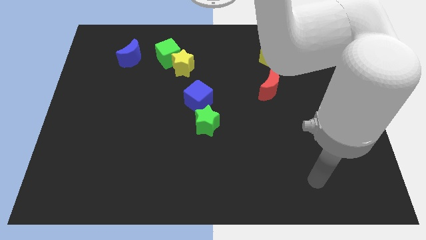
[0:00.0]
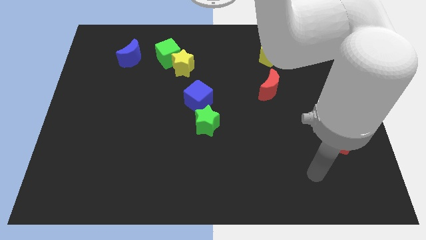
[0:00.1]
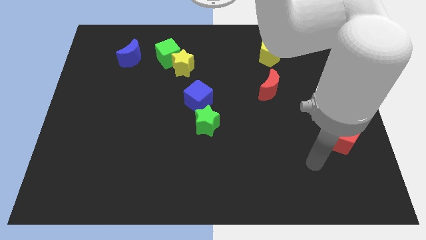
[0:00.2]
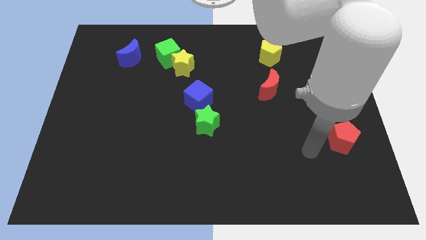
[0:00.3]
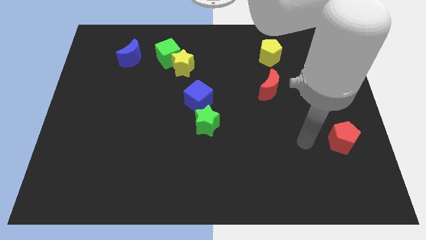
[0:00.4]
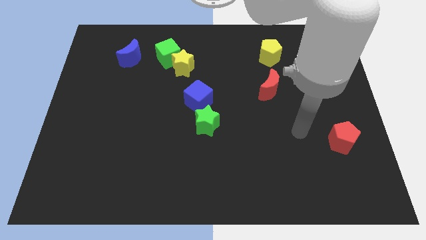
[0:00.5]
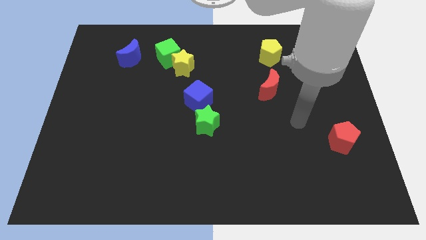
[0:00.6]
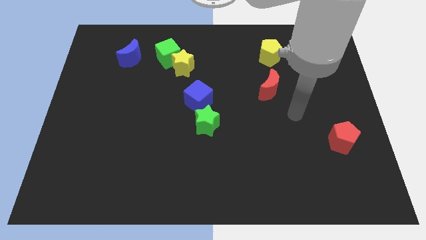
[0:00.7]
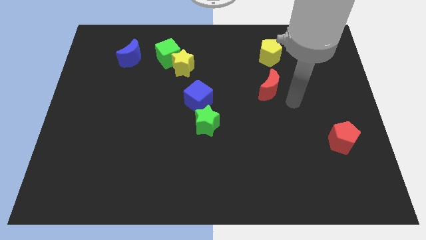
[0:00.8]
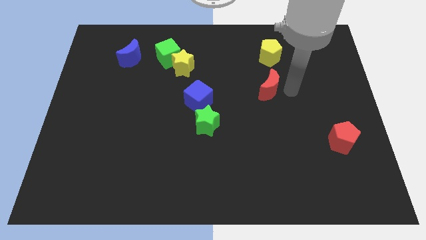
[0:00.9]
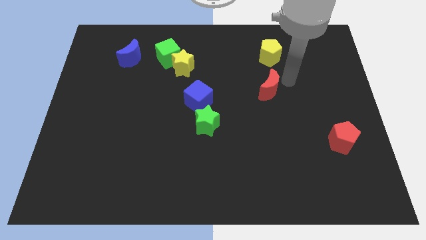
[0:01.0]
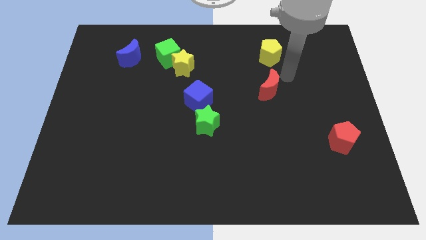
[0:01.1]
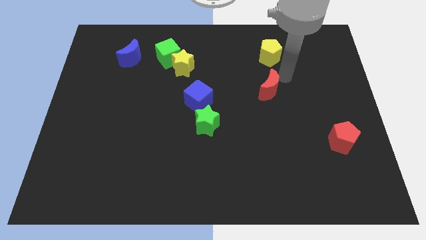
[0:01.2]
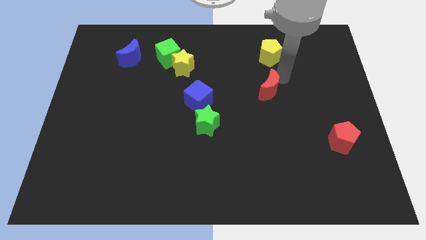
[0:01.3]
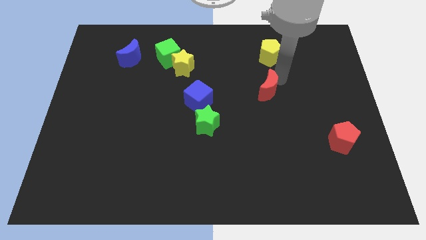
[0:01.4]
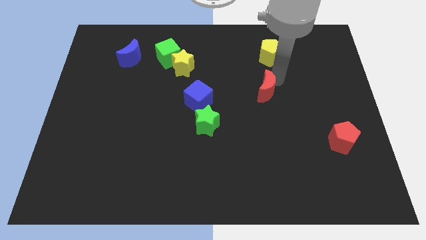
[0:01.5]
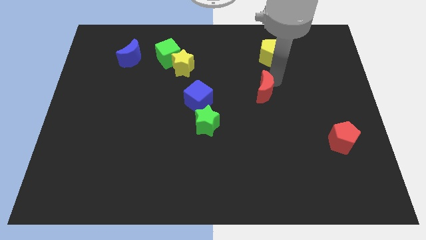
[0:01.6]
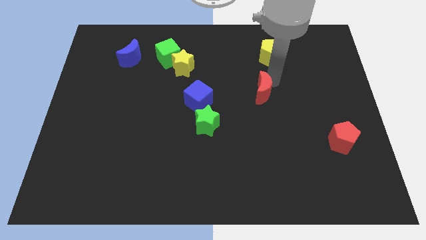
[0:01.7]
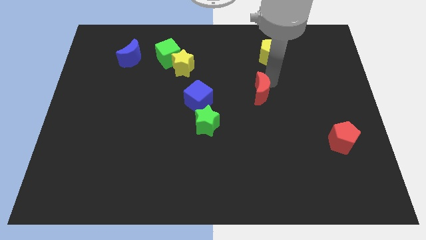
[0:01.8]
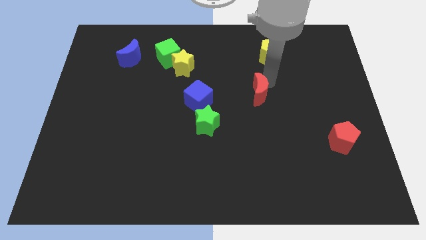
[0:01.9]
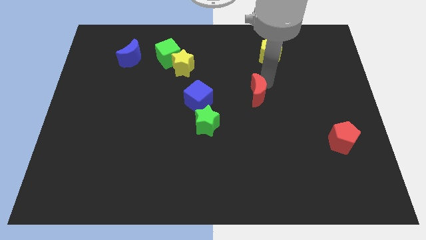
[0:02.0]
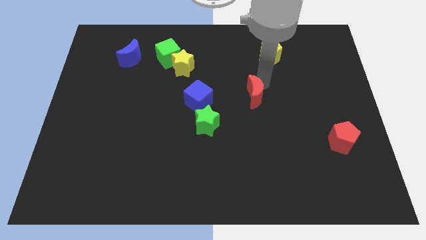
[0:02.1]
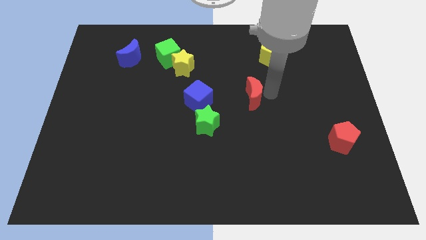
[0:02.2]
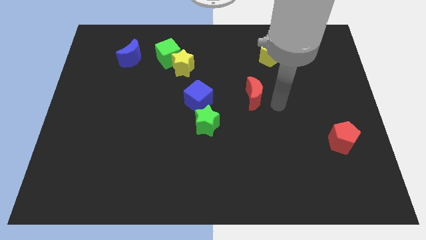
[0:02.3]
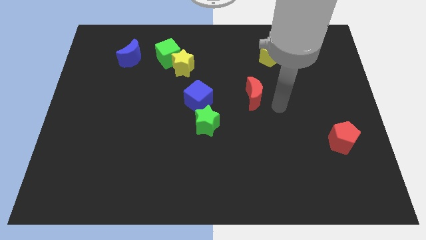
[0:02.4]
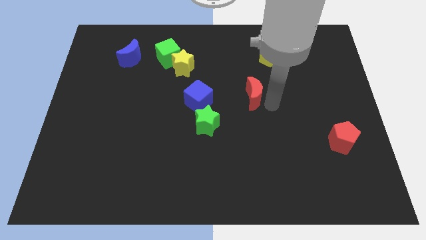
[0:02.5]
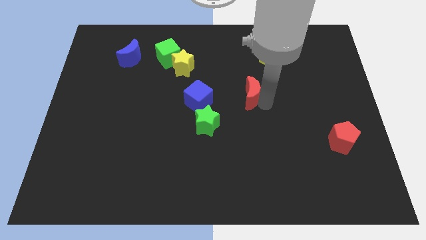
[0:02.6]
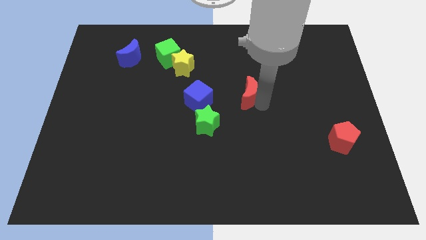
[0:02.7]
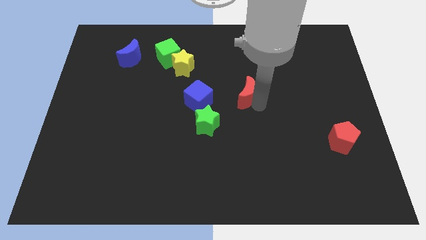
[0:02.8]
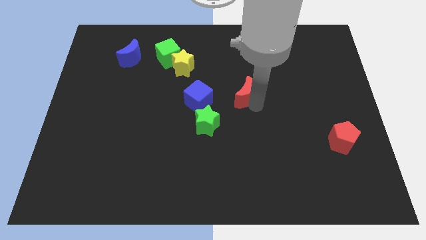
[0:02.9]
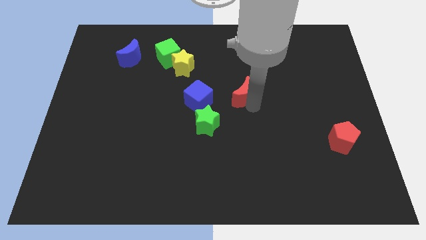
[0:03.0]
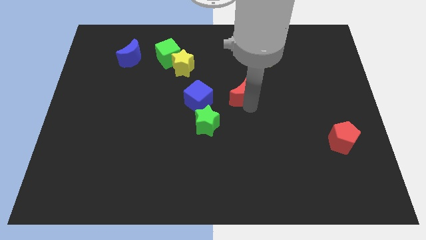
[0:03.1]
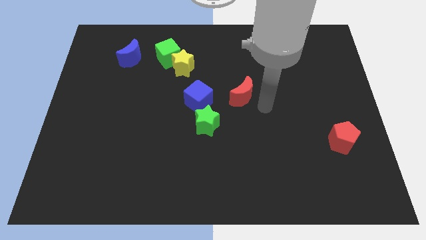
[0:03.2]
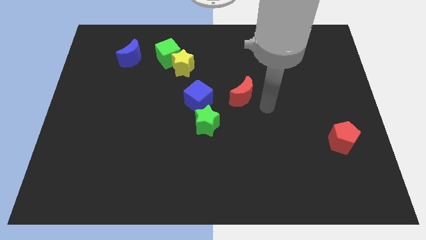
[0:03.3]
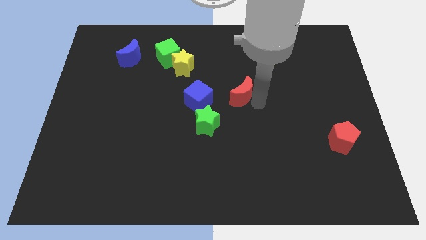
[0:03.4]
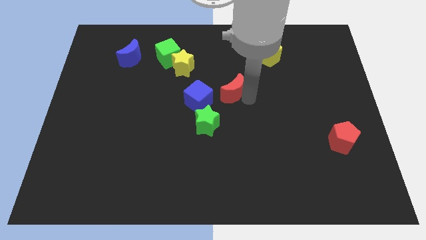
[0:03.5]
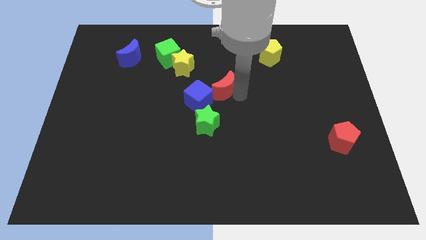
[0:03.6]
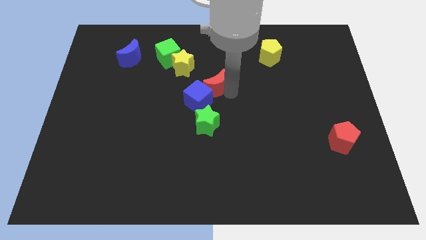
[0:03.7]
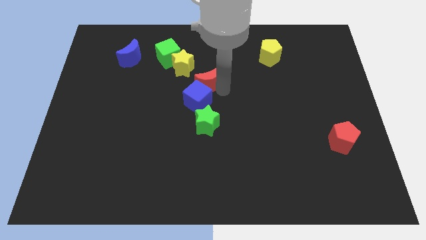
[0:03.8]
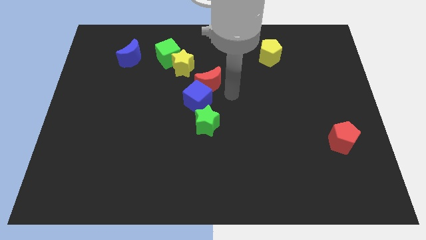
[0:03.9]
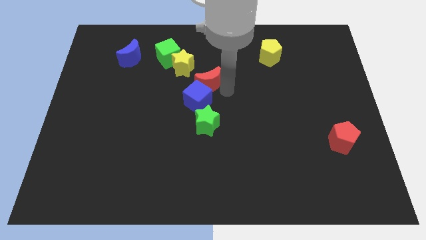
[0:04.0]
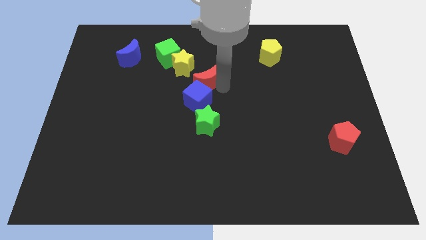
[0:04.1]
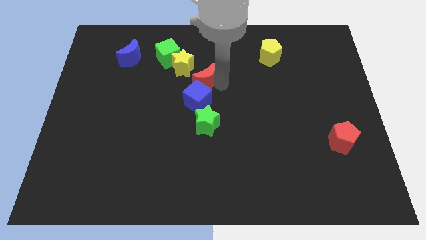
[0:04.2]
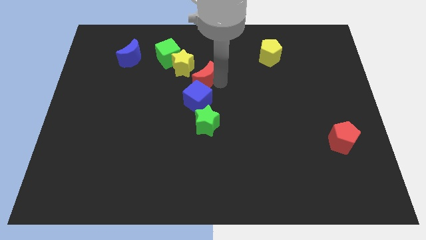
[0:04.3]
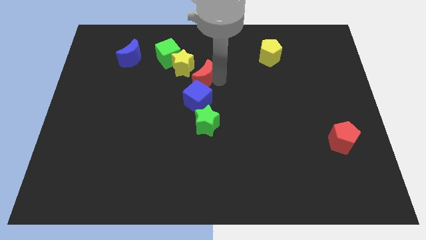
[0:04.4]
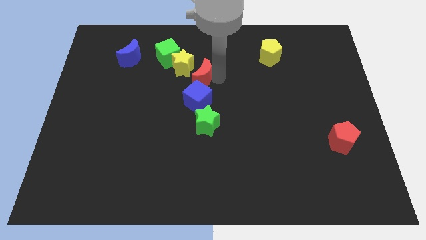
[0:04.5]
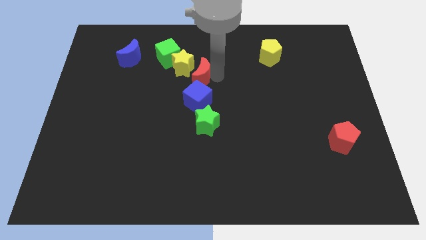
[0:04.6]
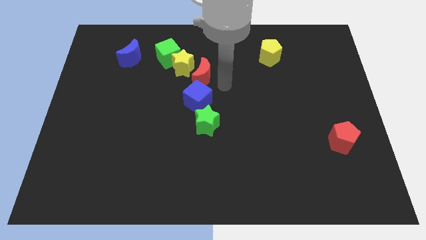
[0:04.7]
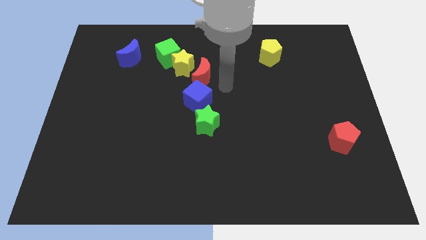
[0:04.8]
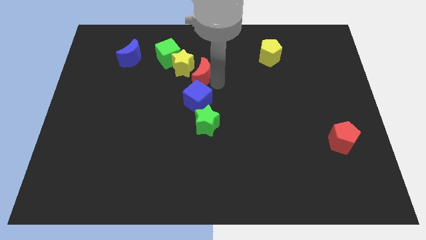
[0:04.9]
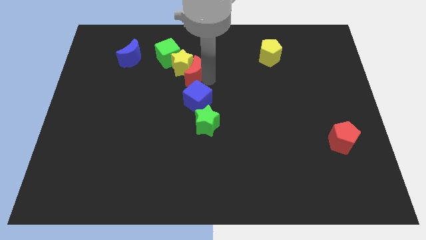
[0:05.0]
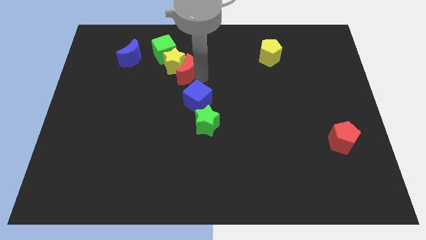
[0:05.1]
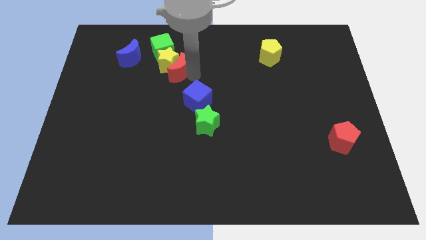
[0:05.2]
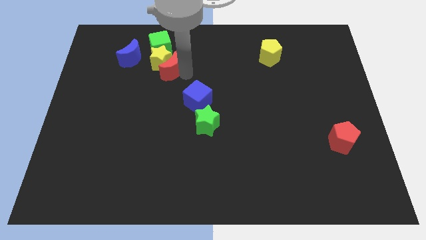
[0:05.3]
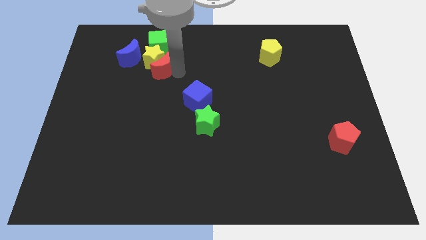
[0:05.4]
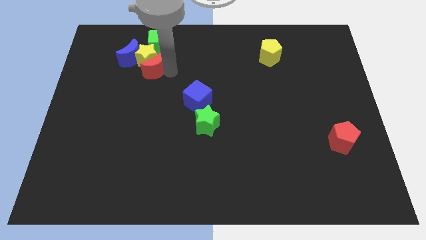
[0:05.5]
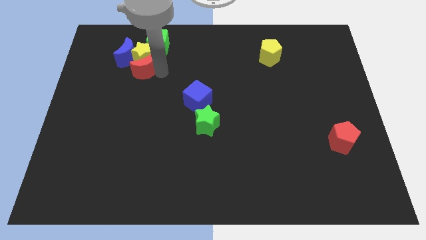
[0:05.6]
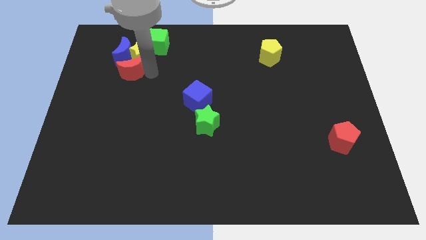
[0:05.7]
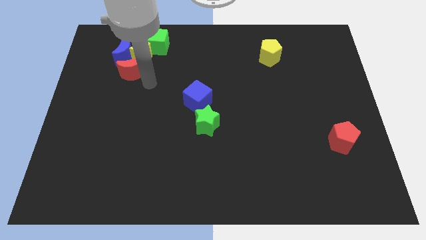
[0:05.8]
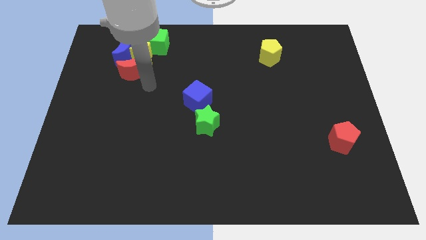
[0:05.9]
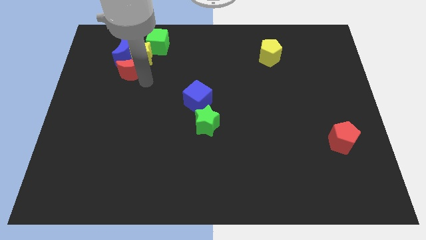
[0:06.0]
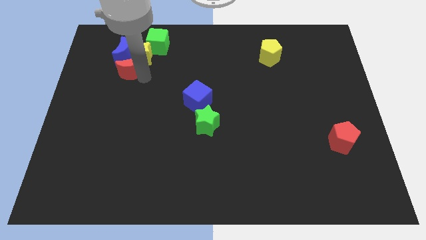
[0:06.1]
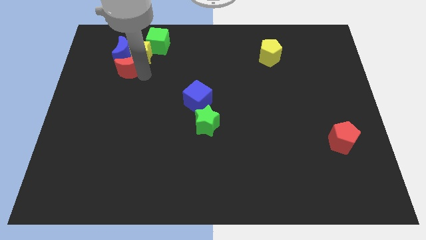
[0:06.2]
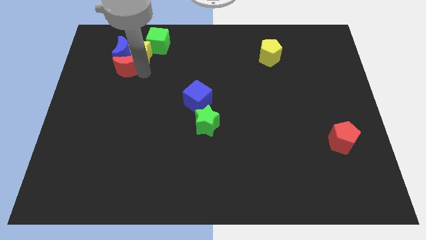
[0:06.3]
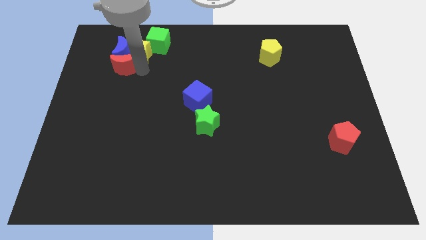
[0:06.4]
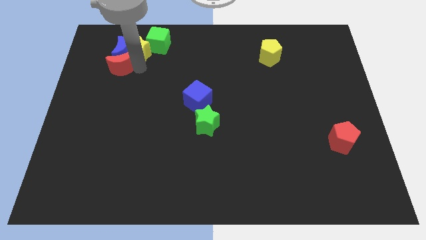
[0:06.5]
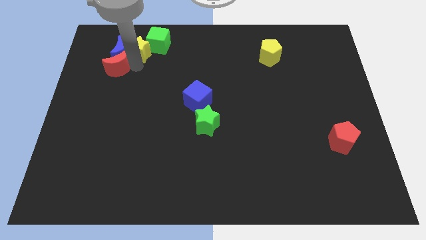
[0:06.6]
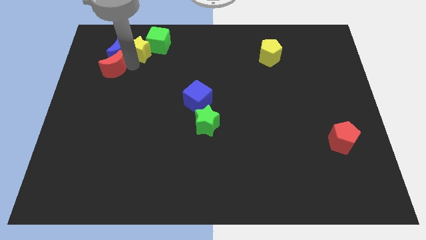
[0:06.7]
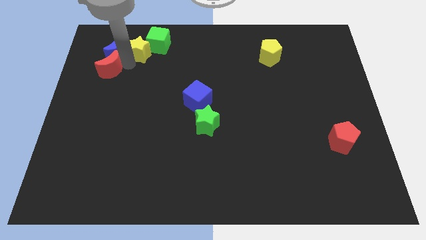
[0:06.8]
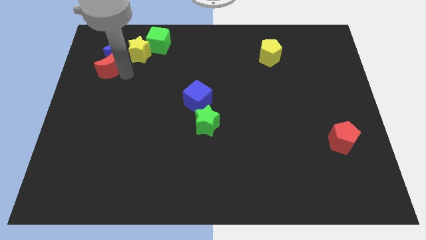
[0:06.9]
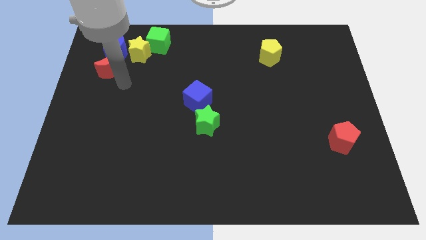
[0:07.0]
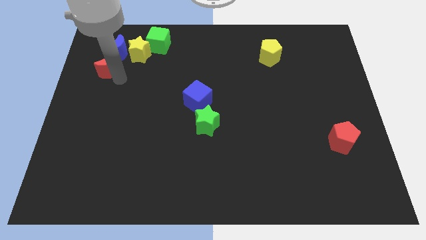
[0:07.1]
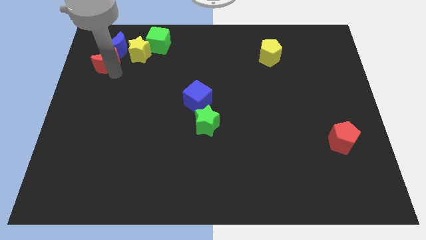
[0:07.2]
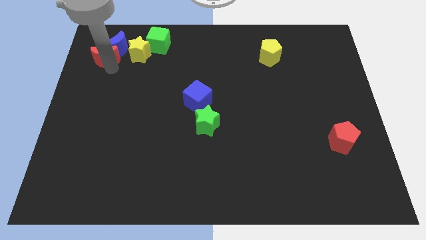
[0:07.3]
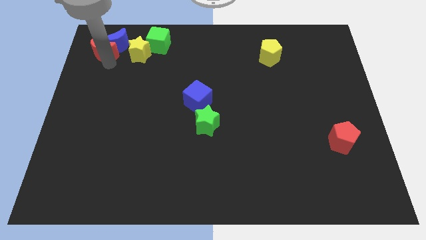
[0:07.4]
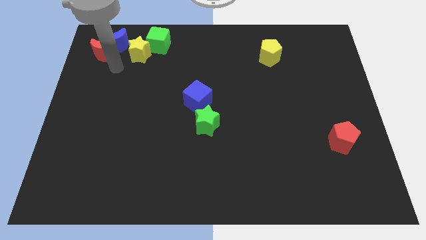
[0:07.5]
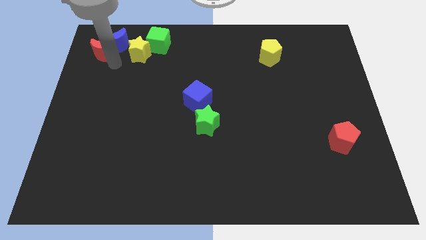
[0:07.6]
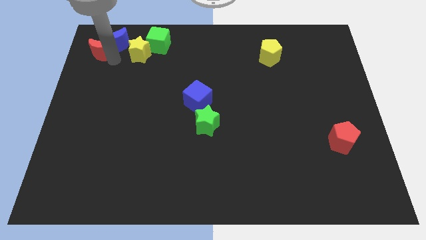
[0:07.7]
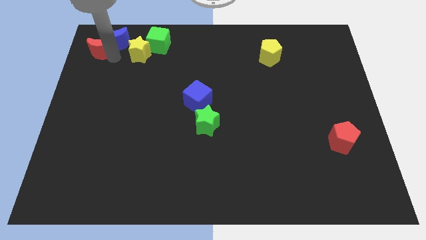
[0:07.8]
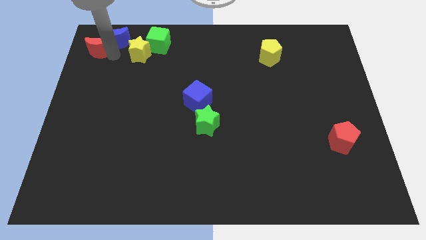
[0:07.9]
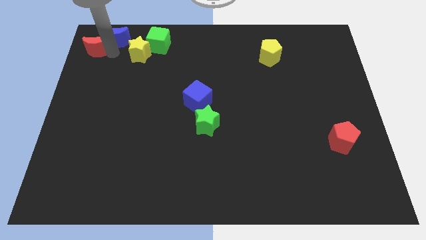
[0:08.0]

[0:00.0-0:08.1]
put the red moon to the top left of the board
